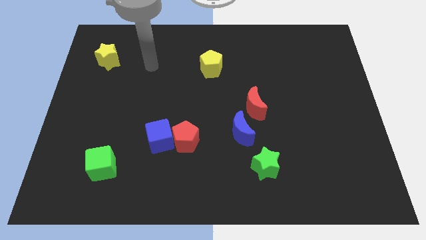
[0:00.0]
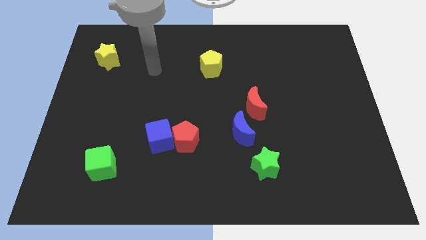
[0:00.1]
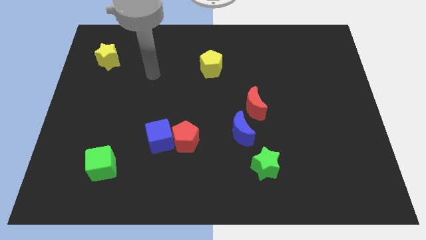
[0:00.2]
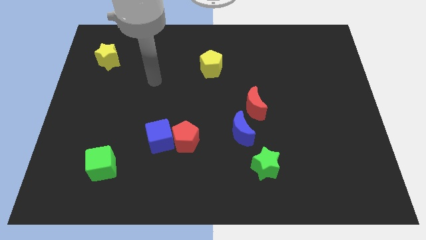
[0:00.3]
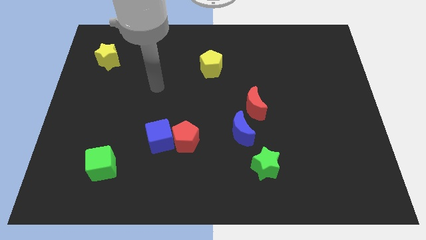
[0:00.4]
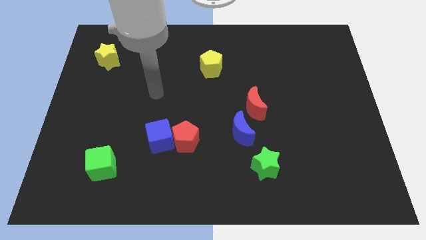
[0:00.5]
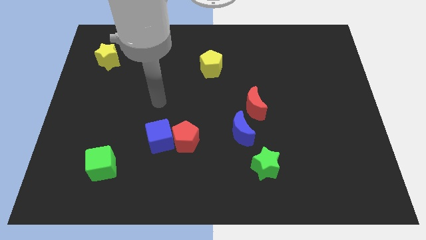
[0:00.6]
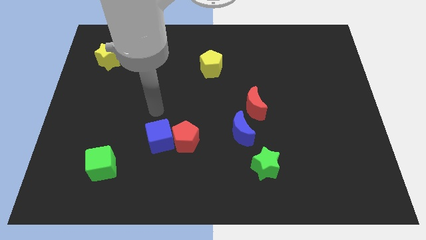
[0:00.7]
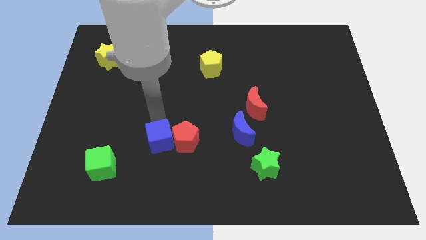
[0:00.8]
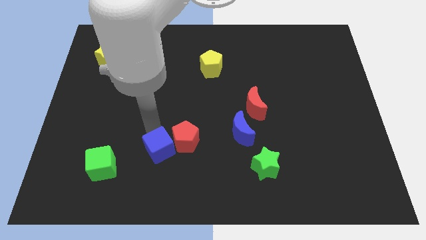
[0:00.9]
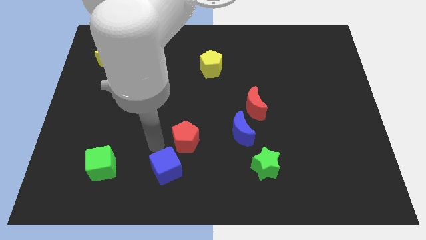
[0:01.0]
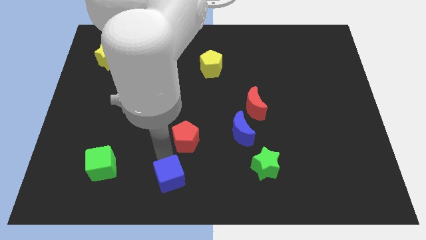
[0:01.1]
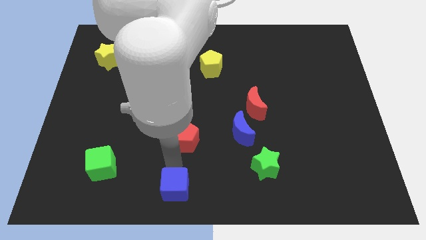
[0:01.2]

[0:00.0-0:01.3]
separate the red pentagon from the blue cube

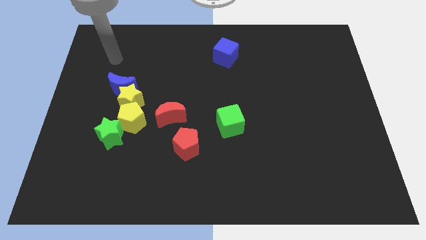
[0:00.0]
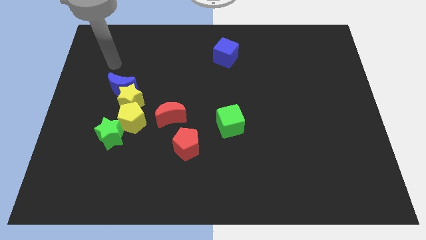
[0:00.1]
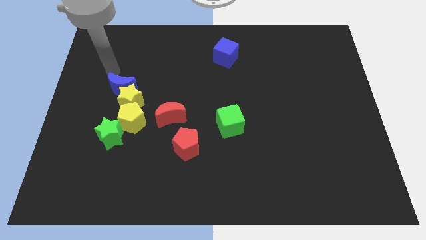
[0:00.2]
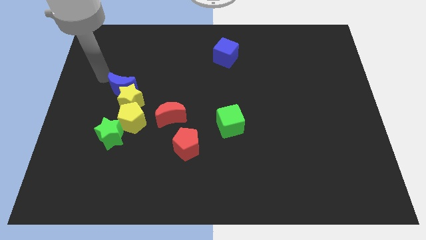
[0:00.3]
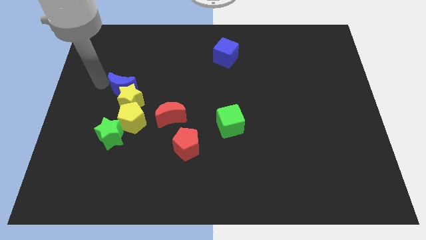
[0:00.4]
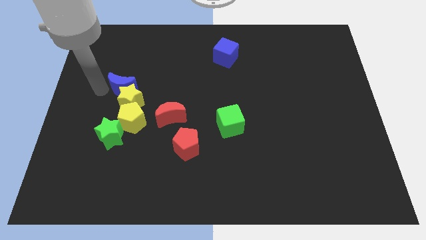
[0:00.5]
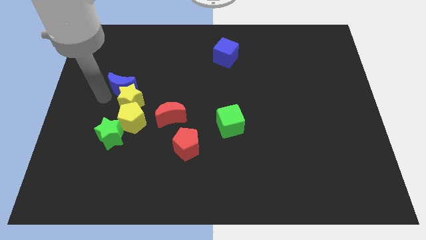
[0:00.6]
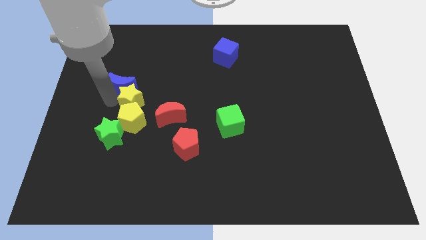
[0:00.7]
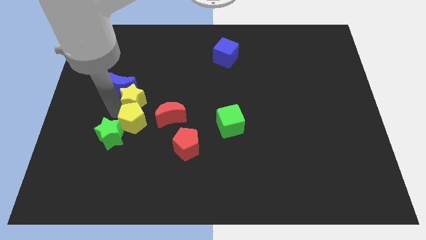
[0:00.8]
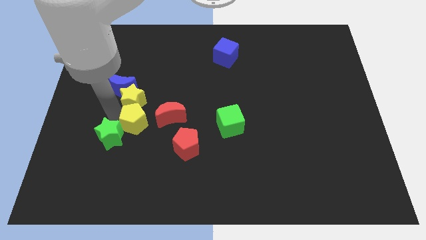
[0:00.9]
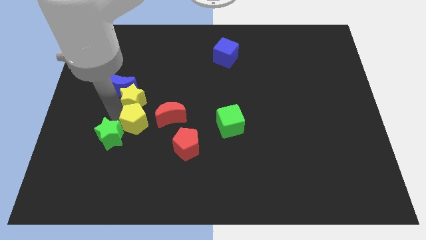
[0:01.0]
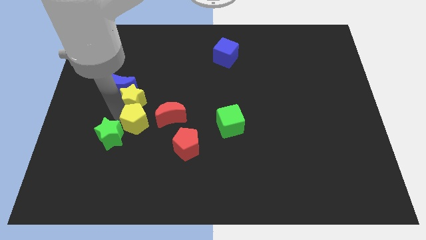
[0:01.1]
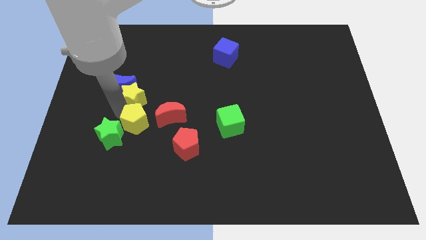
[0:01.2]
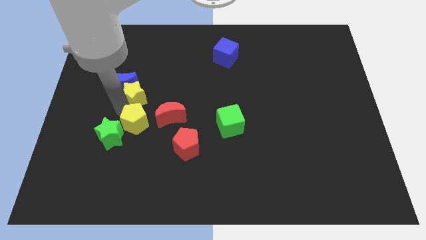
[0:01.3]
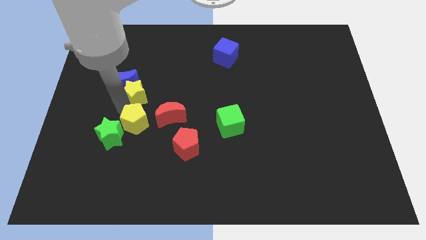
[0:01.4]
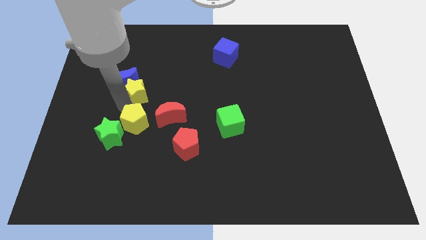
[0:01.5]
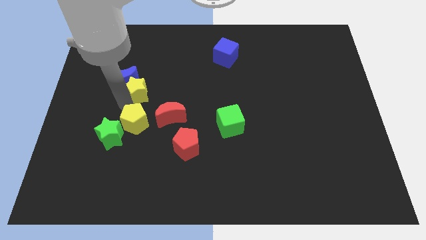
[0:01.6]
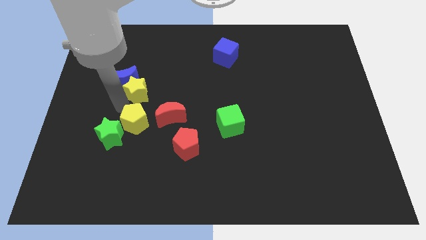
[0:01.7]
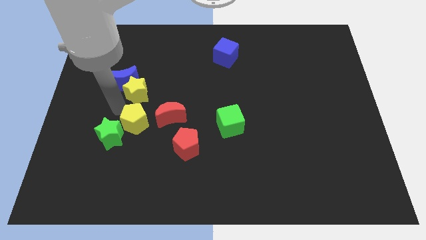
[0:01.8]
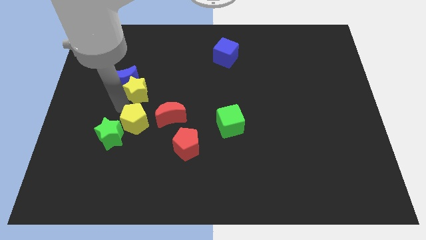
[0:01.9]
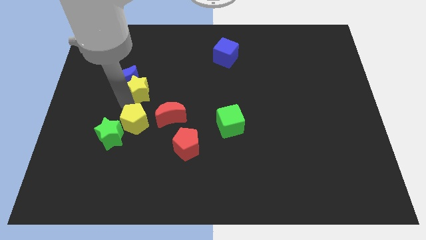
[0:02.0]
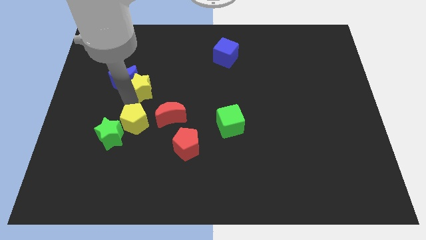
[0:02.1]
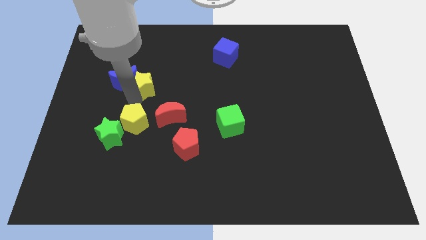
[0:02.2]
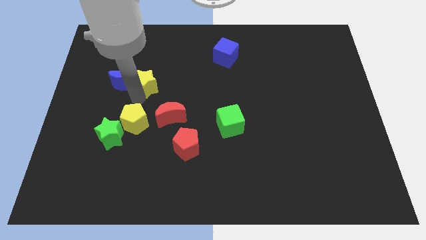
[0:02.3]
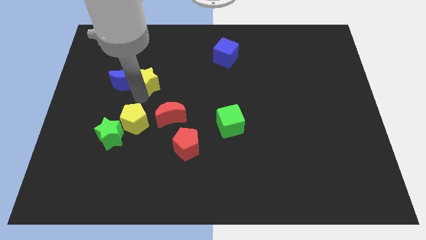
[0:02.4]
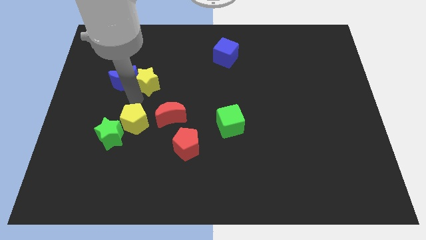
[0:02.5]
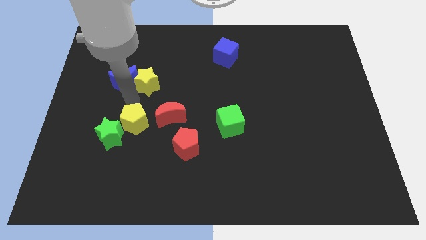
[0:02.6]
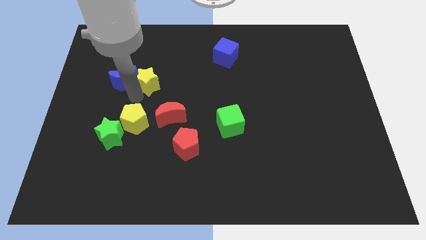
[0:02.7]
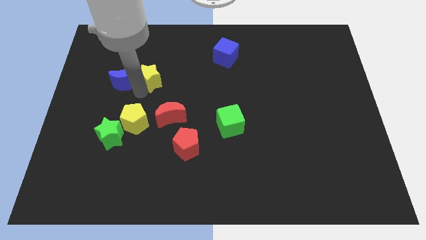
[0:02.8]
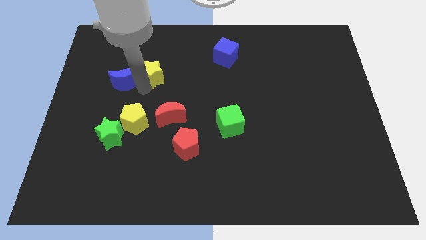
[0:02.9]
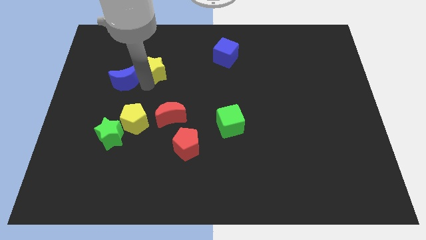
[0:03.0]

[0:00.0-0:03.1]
move the yellow star away from the blue moon and yellow pentagon

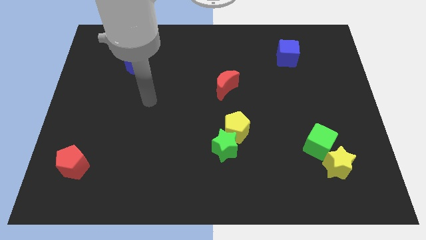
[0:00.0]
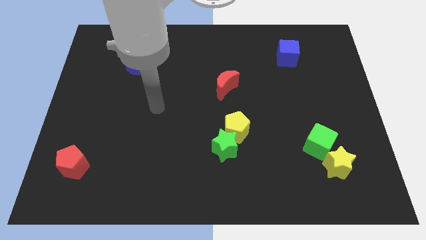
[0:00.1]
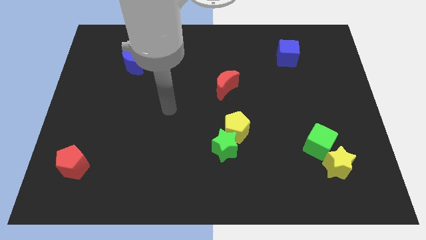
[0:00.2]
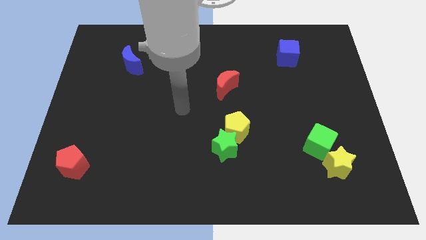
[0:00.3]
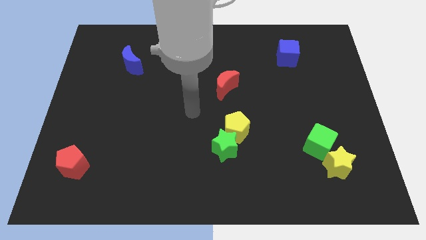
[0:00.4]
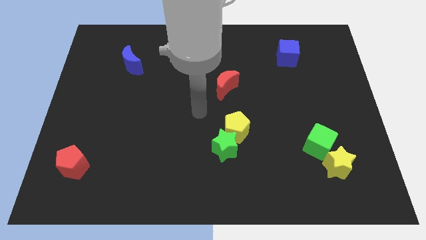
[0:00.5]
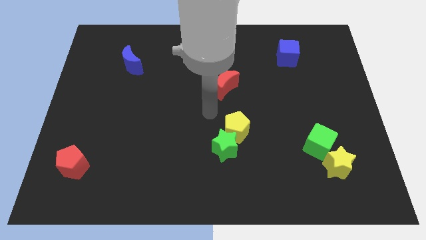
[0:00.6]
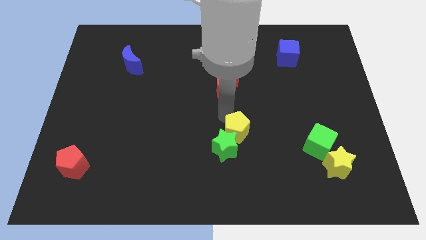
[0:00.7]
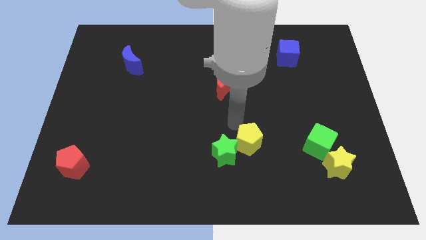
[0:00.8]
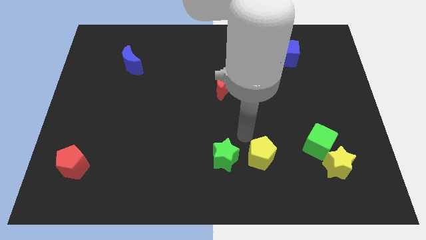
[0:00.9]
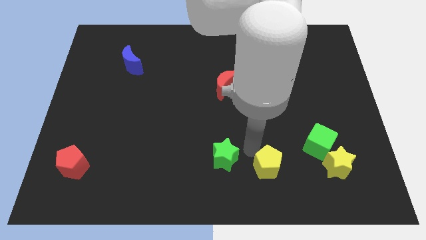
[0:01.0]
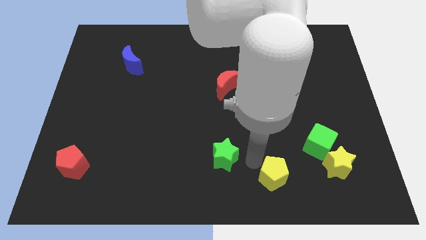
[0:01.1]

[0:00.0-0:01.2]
separate the green star from the yellow pentagon

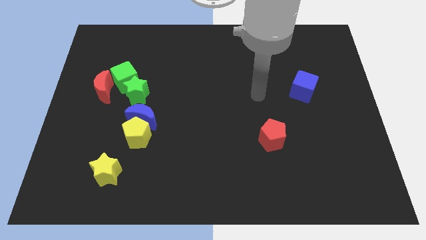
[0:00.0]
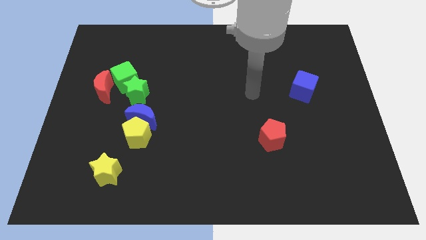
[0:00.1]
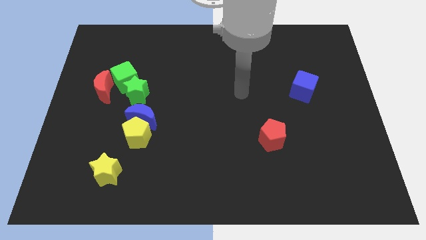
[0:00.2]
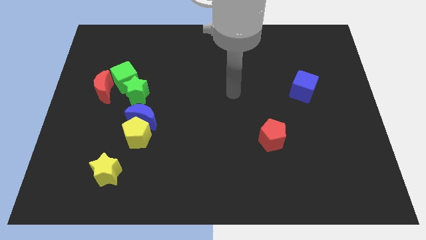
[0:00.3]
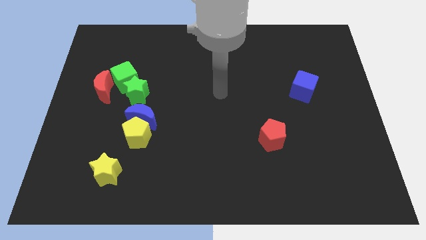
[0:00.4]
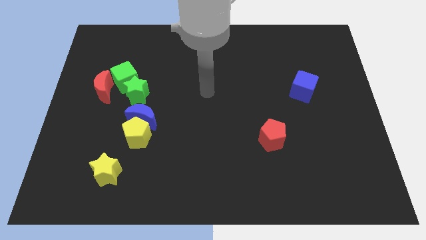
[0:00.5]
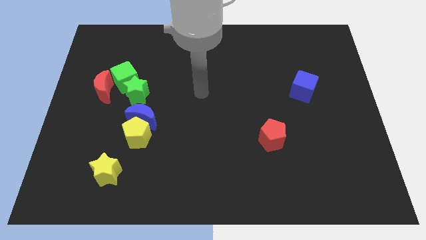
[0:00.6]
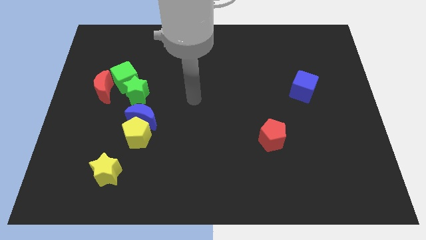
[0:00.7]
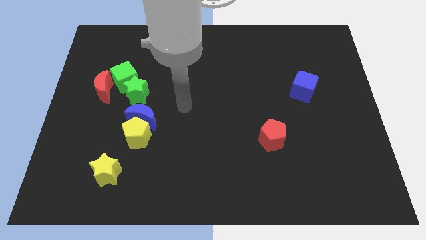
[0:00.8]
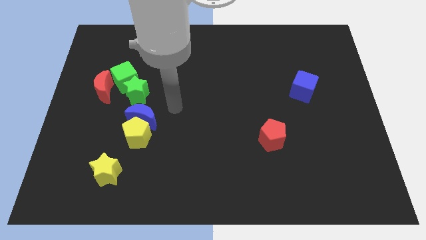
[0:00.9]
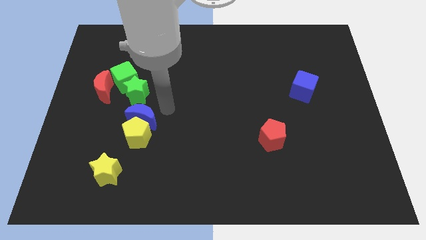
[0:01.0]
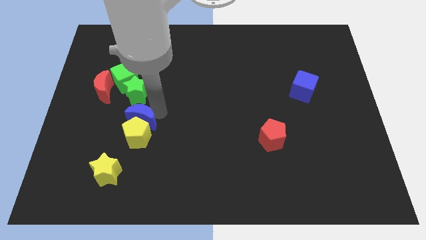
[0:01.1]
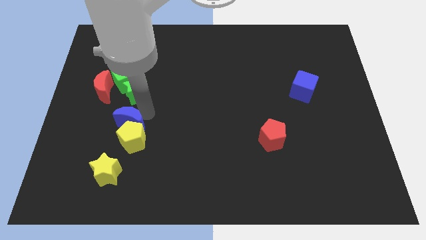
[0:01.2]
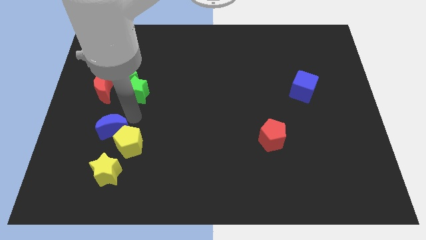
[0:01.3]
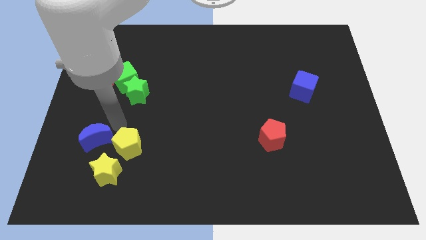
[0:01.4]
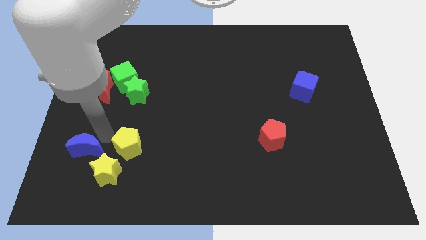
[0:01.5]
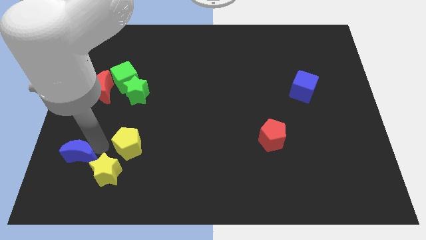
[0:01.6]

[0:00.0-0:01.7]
pull the yellow pentagon apart from the blue moon

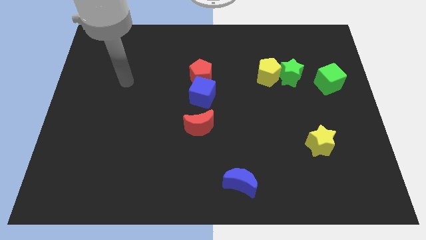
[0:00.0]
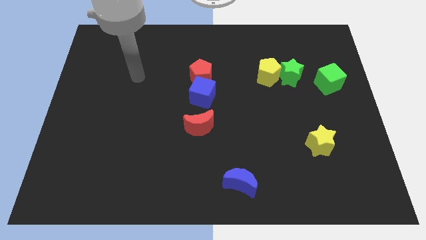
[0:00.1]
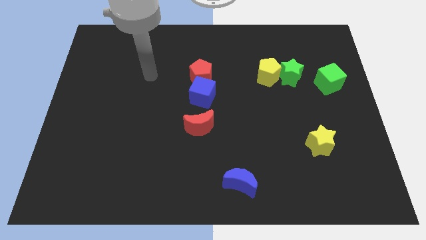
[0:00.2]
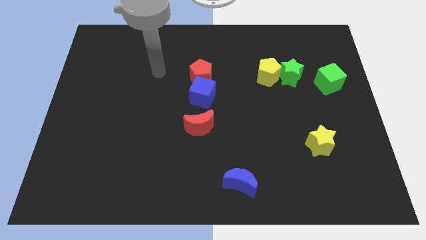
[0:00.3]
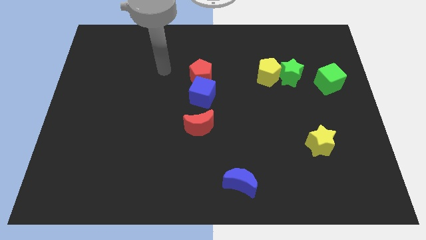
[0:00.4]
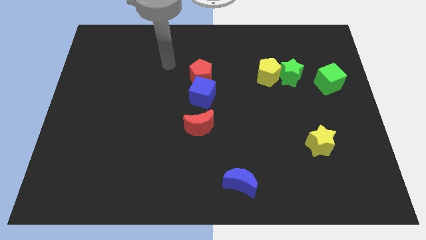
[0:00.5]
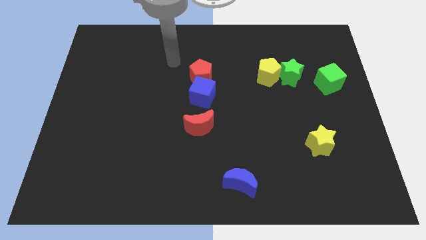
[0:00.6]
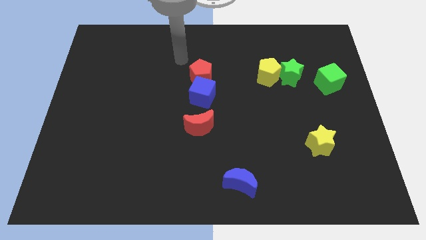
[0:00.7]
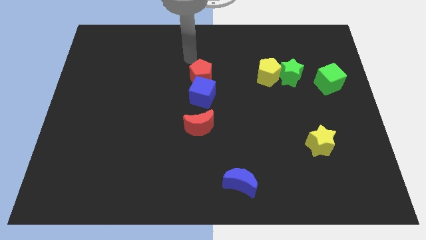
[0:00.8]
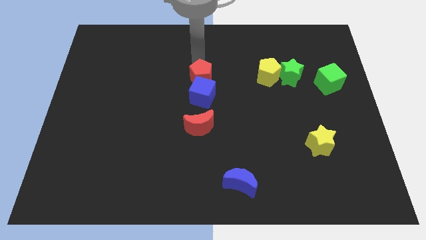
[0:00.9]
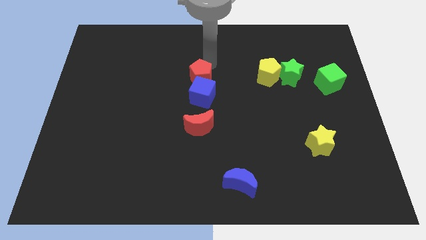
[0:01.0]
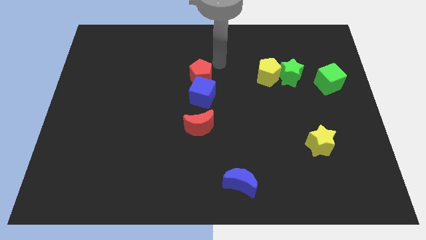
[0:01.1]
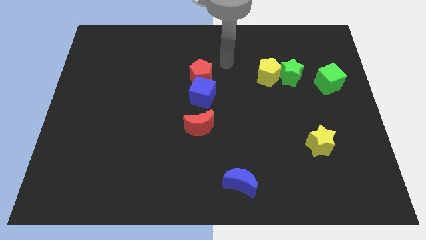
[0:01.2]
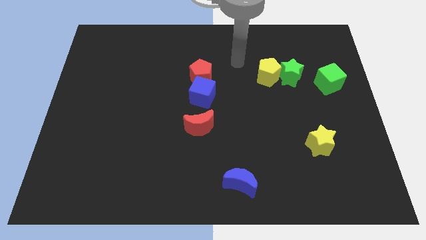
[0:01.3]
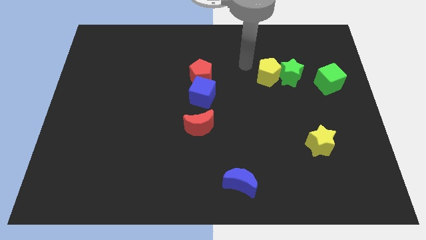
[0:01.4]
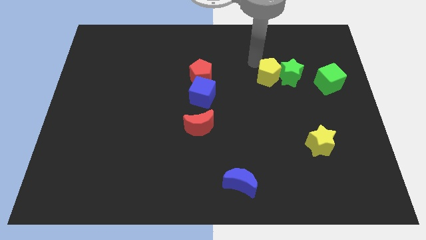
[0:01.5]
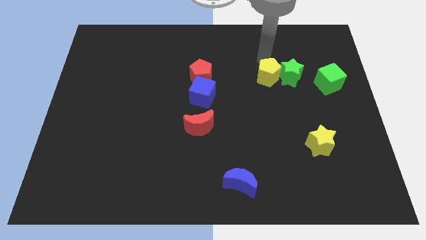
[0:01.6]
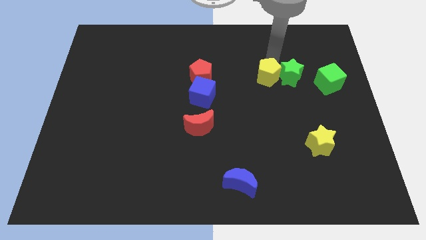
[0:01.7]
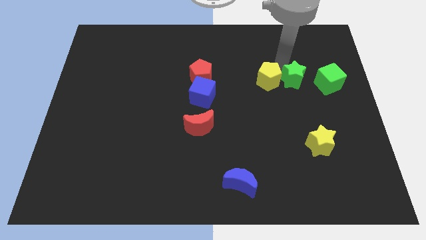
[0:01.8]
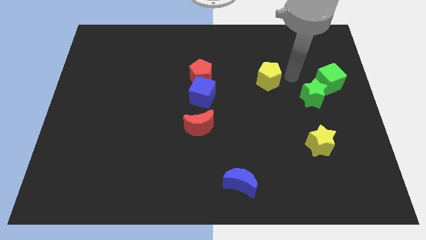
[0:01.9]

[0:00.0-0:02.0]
move the yellow pentagon away from the green star

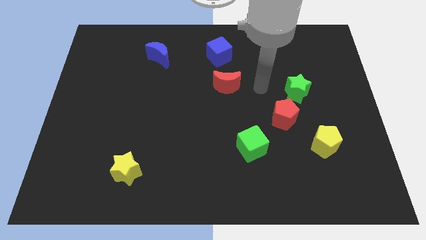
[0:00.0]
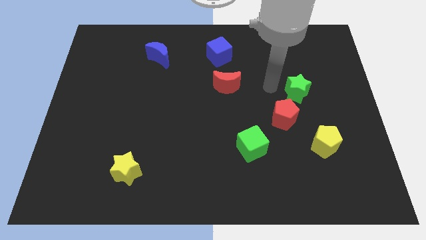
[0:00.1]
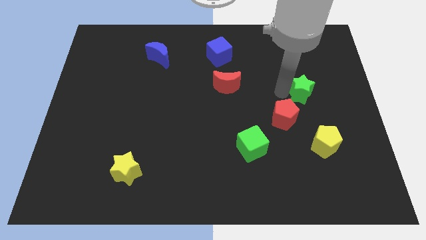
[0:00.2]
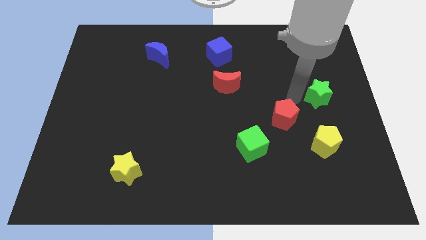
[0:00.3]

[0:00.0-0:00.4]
move the red pentagon away from the green star
